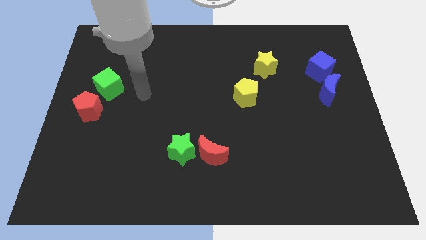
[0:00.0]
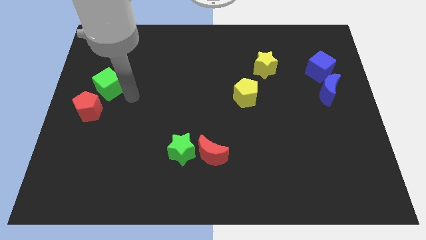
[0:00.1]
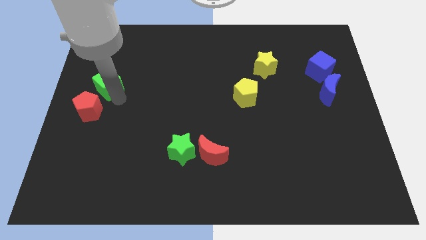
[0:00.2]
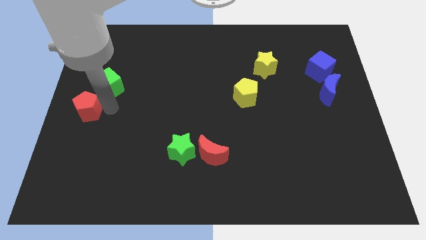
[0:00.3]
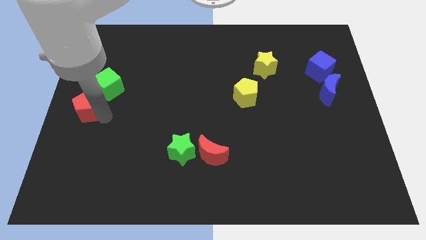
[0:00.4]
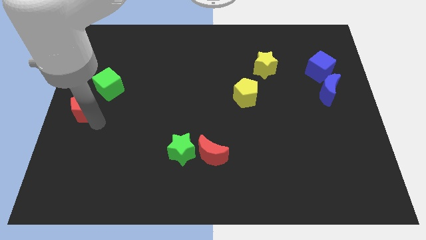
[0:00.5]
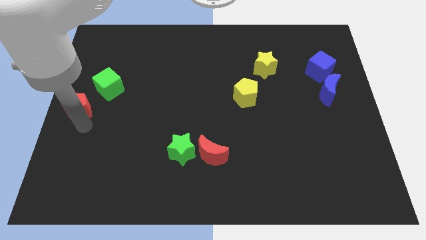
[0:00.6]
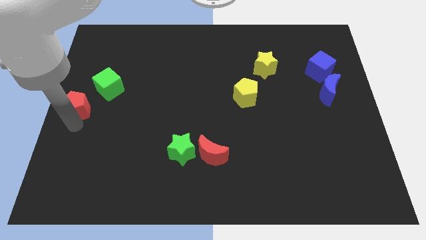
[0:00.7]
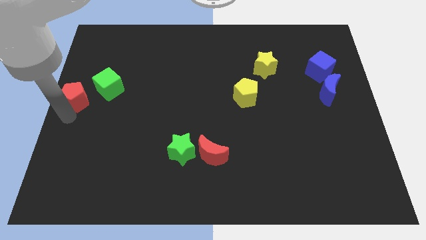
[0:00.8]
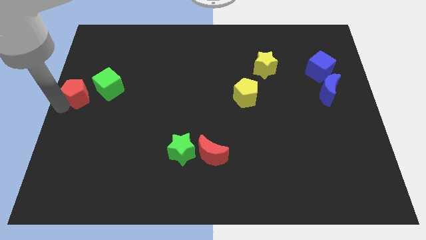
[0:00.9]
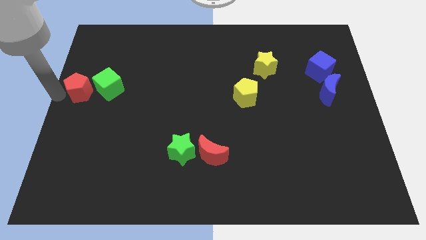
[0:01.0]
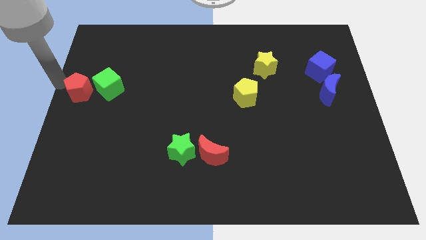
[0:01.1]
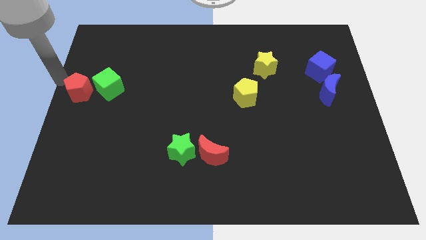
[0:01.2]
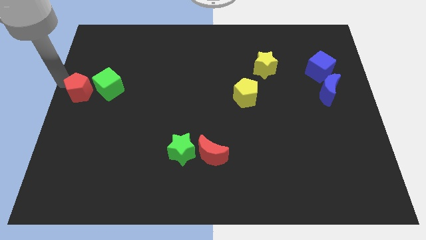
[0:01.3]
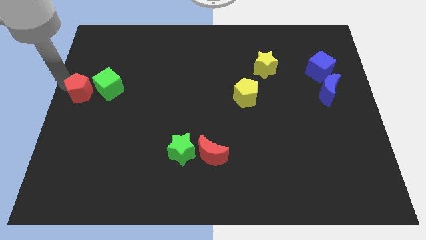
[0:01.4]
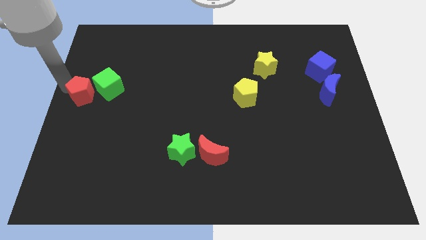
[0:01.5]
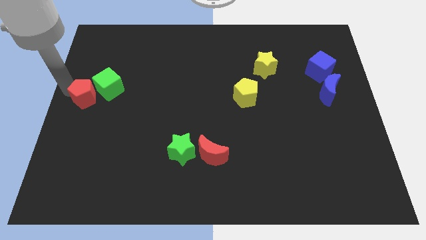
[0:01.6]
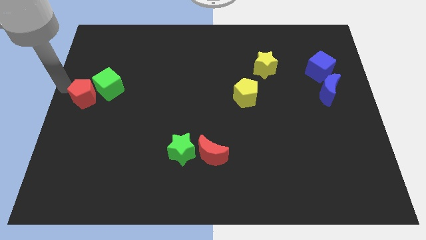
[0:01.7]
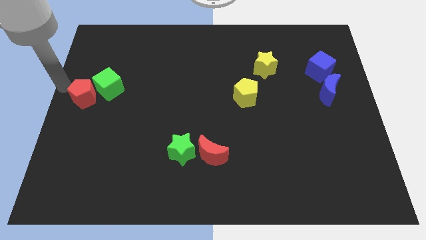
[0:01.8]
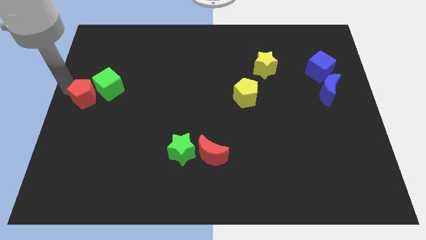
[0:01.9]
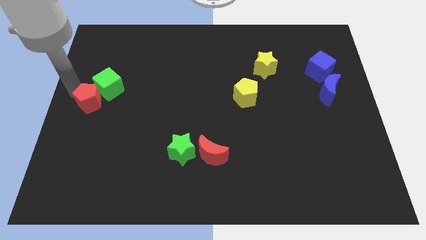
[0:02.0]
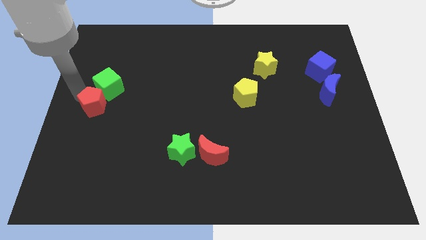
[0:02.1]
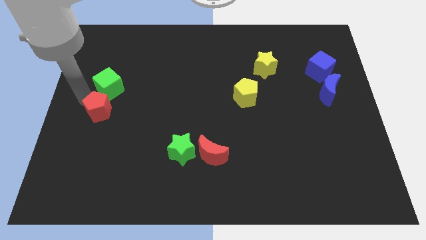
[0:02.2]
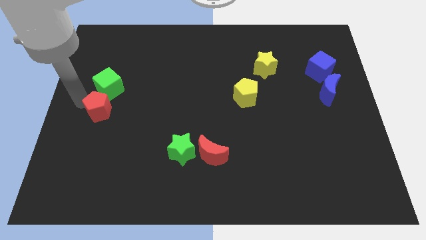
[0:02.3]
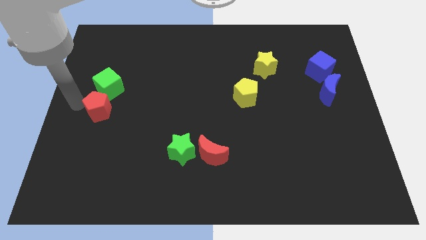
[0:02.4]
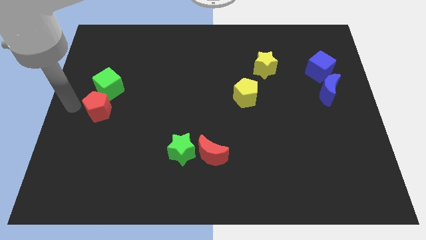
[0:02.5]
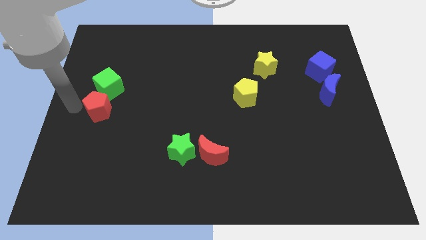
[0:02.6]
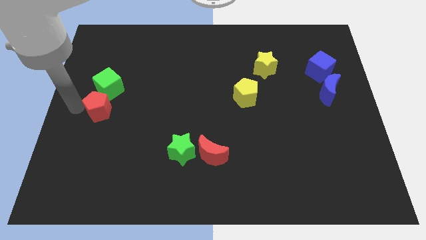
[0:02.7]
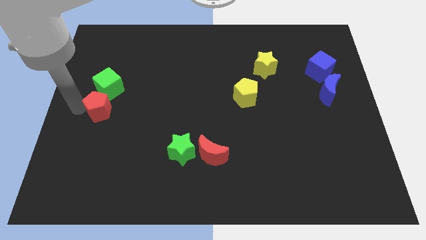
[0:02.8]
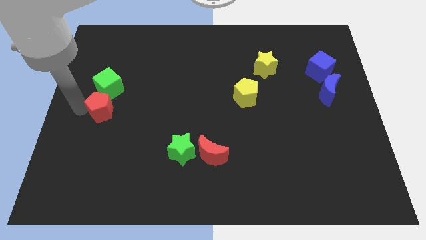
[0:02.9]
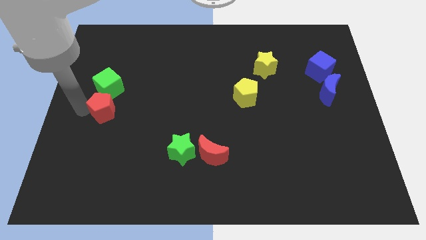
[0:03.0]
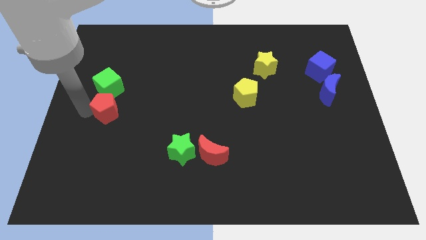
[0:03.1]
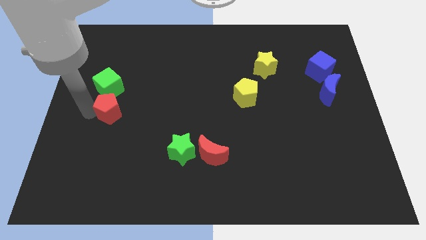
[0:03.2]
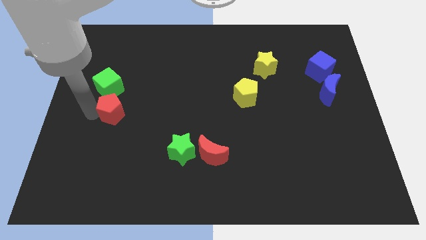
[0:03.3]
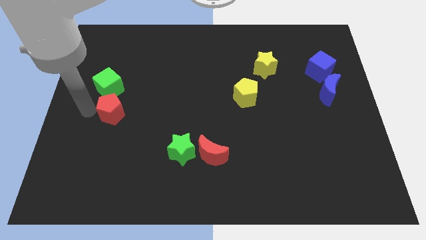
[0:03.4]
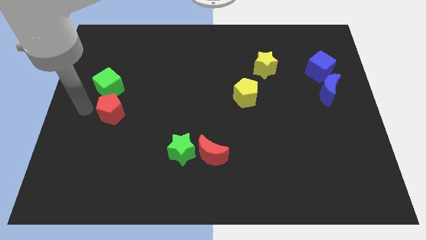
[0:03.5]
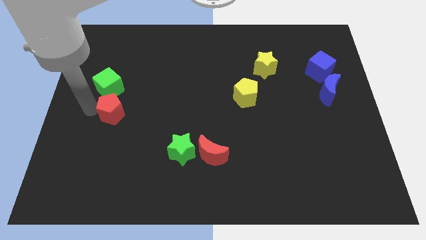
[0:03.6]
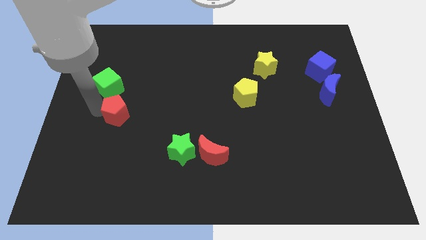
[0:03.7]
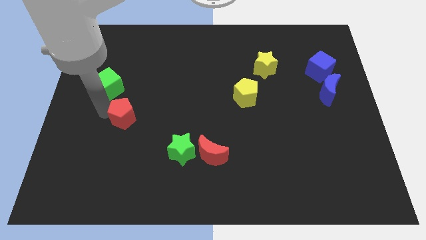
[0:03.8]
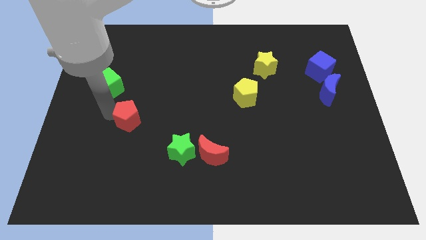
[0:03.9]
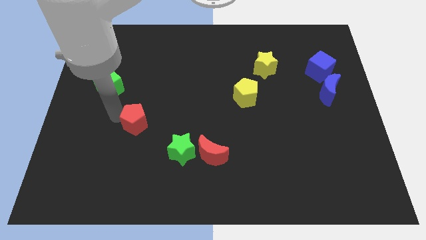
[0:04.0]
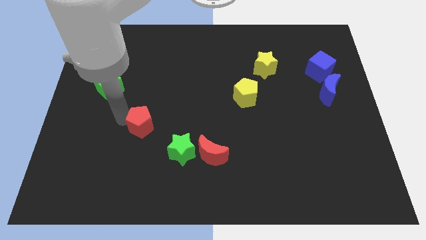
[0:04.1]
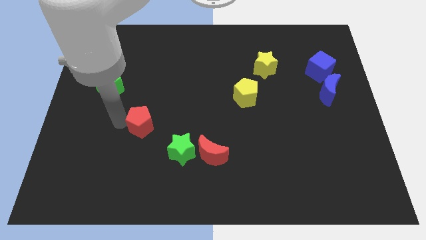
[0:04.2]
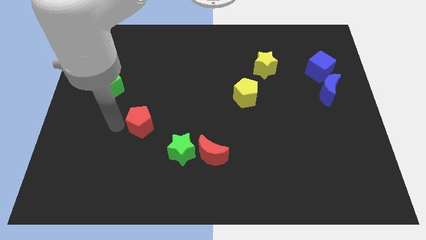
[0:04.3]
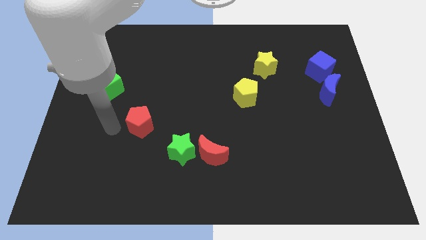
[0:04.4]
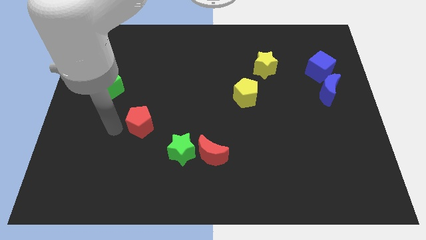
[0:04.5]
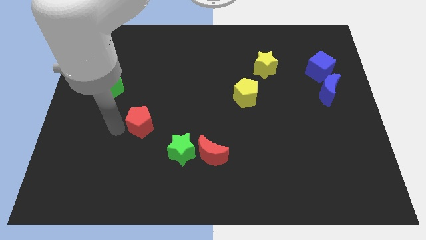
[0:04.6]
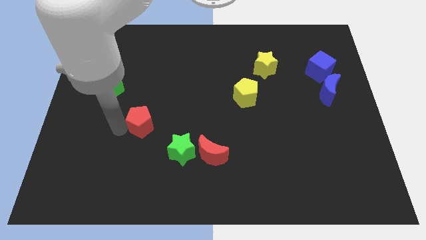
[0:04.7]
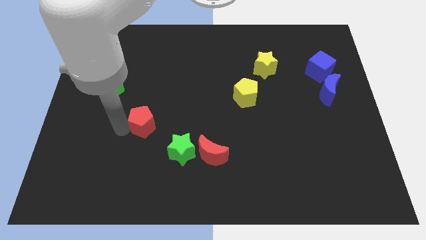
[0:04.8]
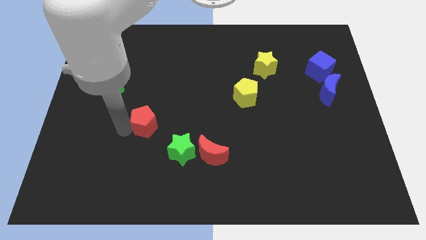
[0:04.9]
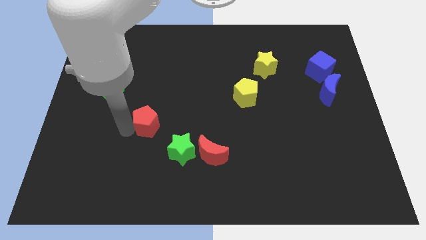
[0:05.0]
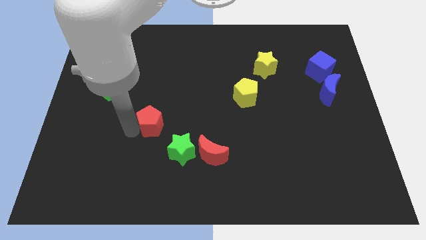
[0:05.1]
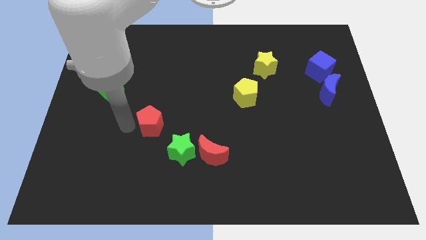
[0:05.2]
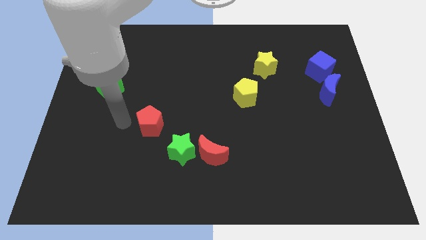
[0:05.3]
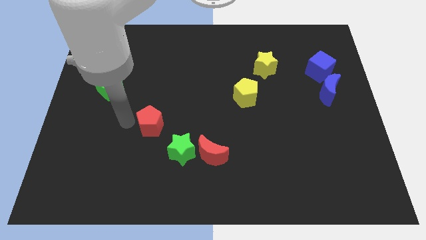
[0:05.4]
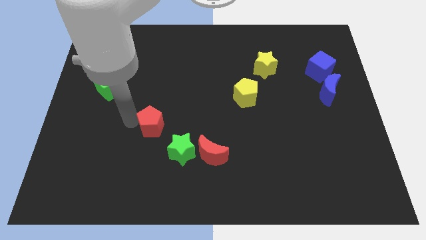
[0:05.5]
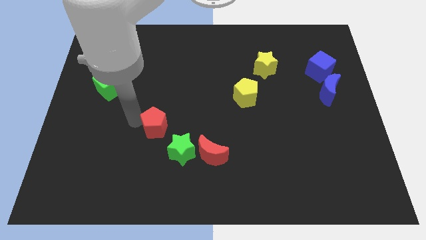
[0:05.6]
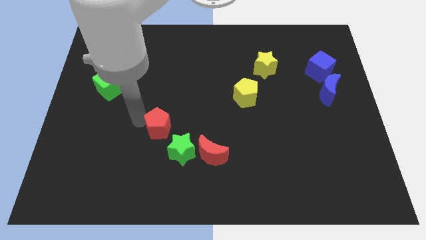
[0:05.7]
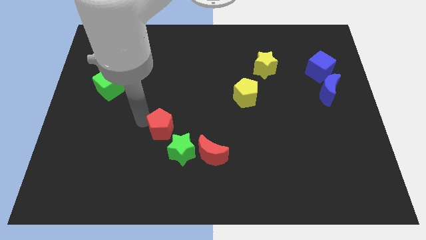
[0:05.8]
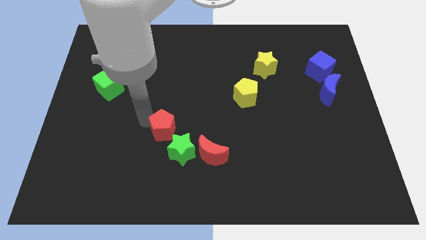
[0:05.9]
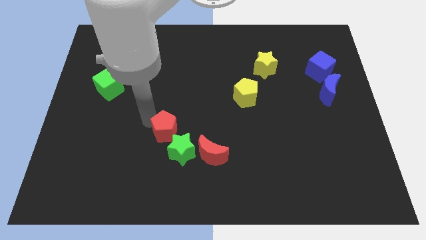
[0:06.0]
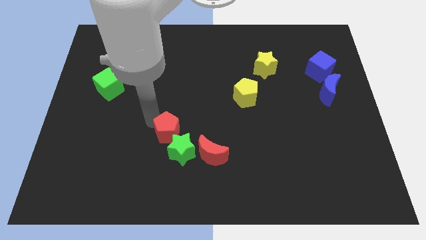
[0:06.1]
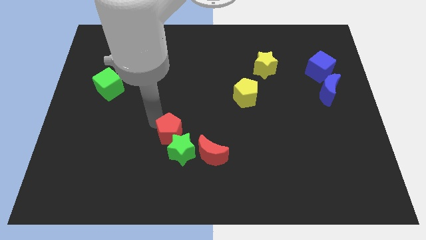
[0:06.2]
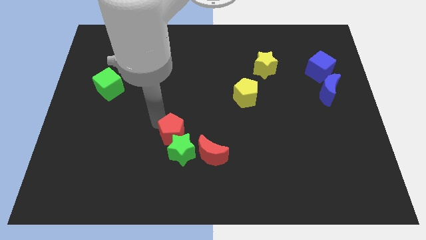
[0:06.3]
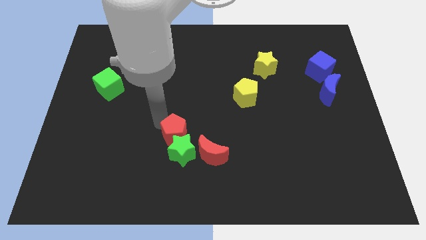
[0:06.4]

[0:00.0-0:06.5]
slide the red pentagon to the top right side of the green star
